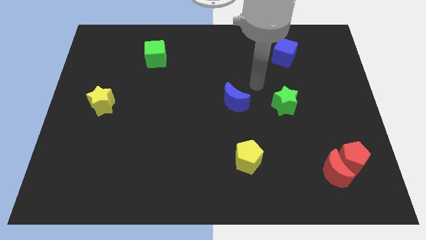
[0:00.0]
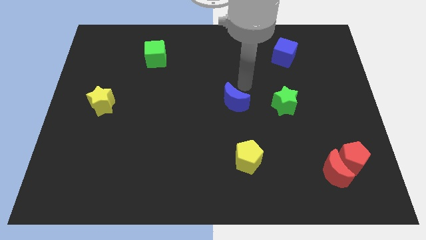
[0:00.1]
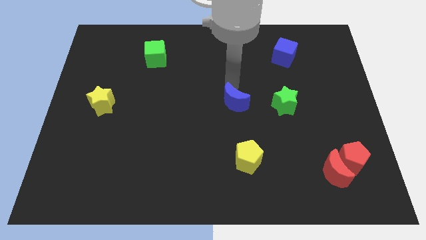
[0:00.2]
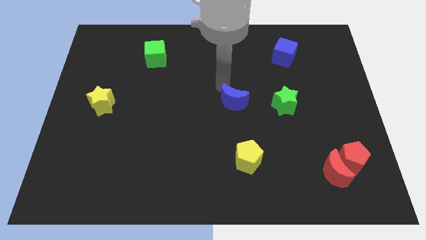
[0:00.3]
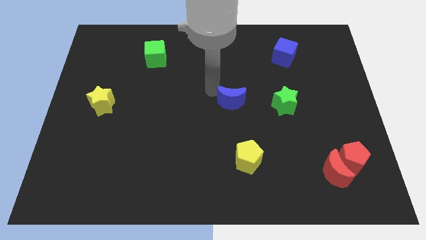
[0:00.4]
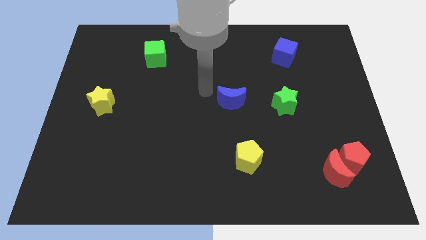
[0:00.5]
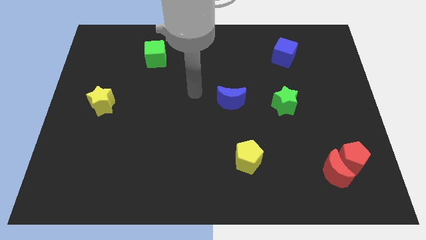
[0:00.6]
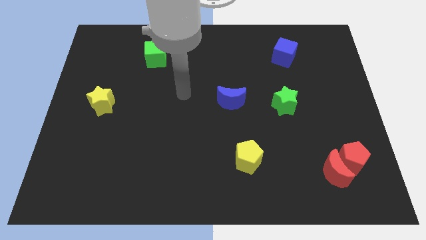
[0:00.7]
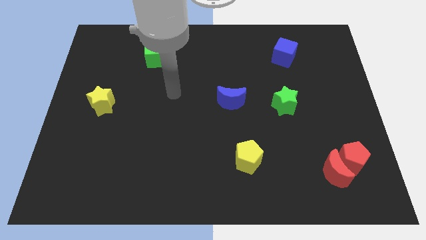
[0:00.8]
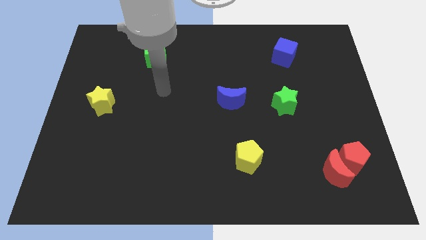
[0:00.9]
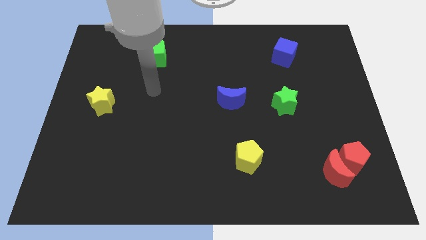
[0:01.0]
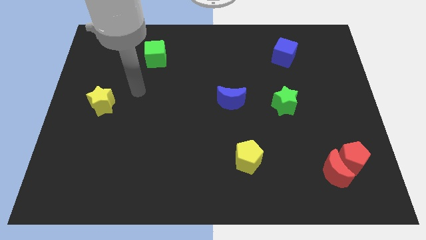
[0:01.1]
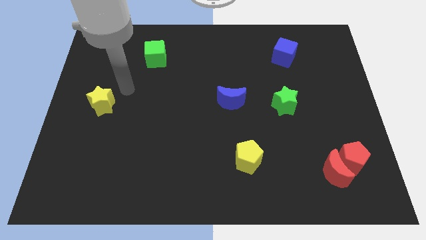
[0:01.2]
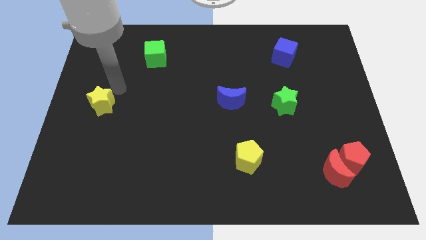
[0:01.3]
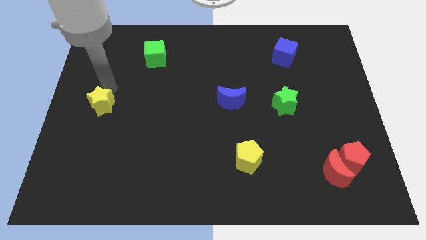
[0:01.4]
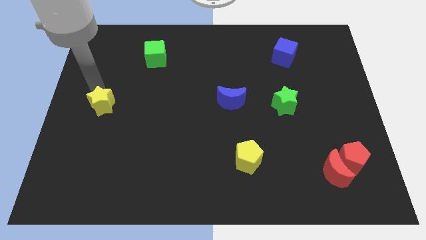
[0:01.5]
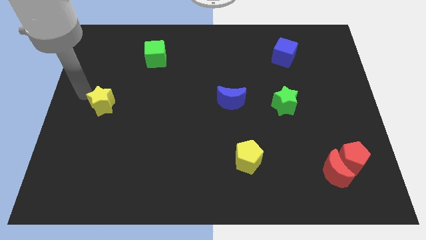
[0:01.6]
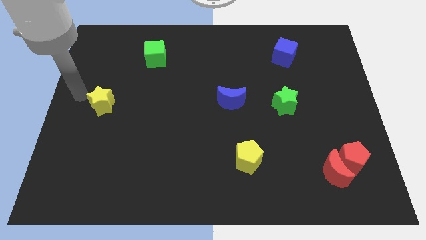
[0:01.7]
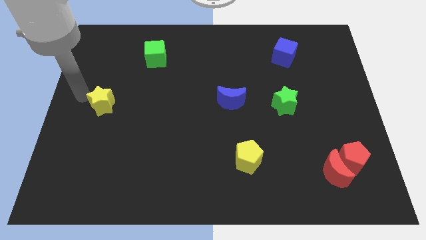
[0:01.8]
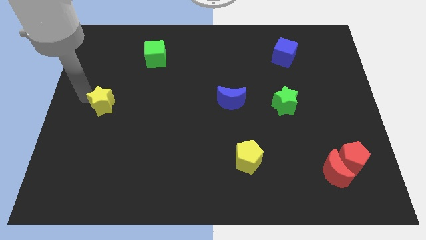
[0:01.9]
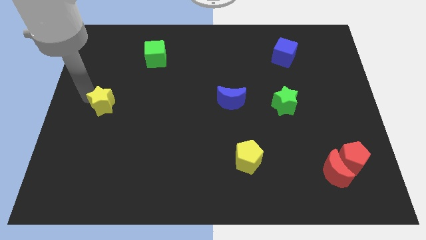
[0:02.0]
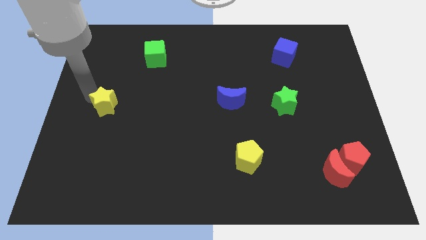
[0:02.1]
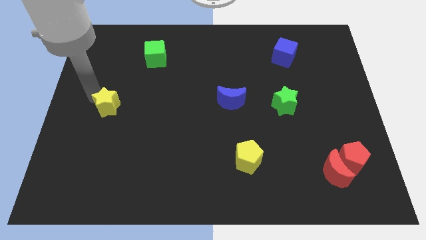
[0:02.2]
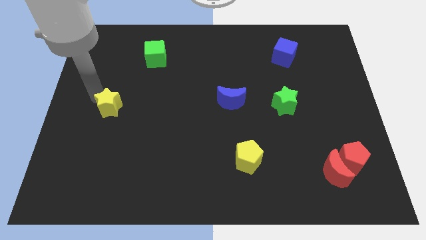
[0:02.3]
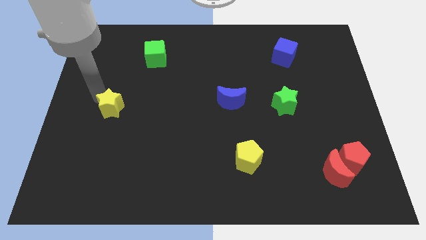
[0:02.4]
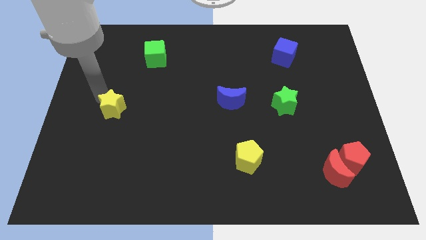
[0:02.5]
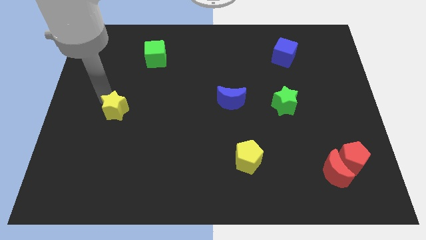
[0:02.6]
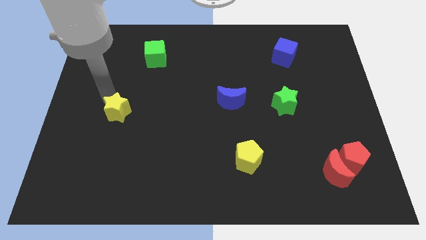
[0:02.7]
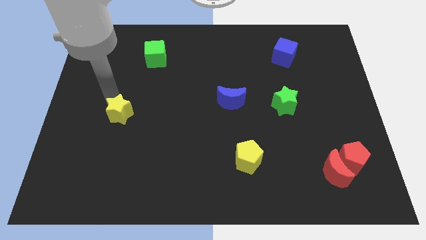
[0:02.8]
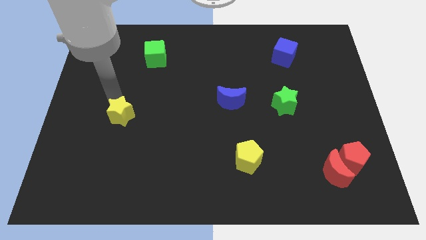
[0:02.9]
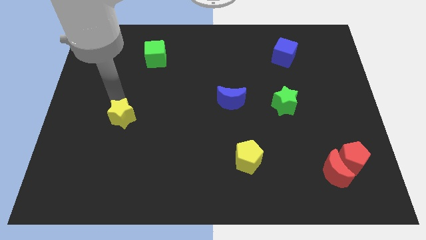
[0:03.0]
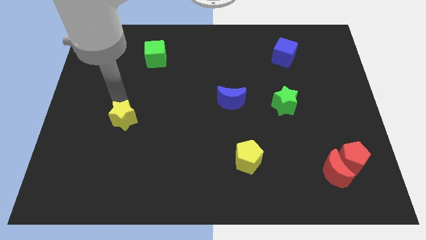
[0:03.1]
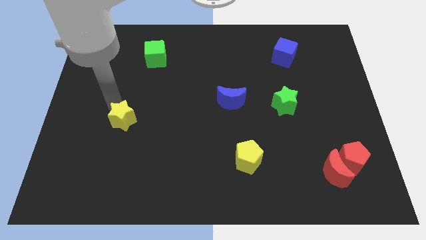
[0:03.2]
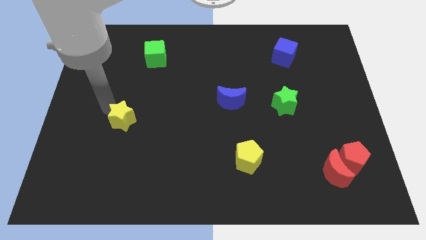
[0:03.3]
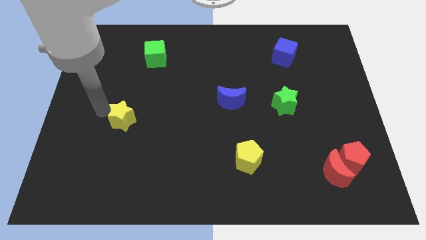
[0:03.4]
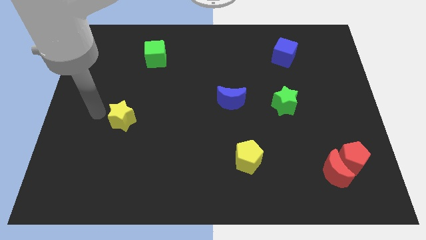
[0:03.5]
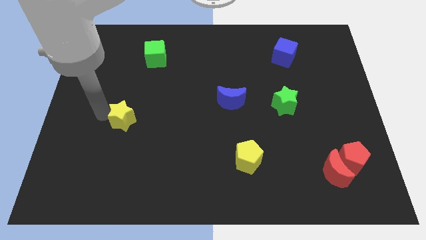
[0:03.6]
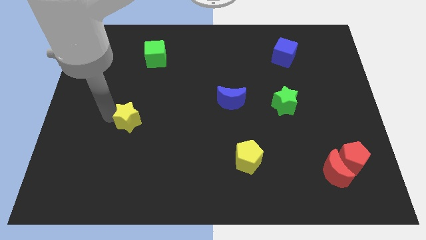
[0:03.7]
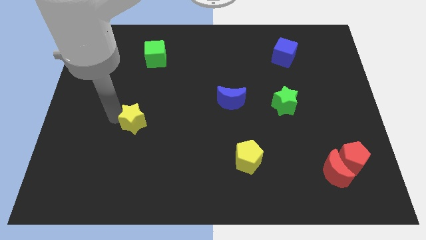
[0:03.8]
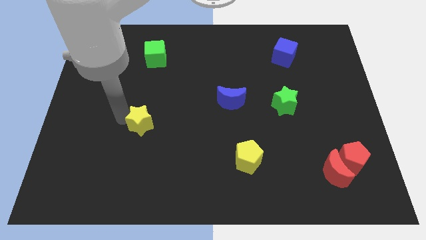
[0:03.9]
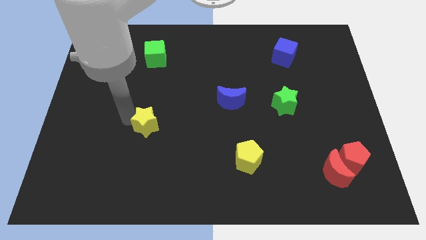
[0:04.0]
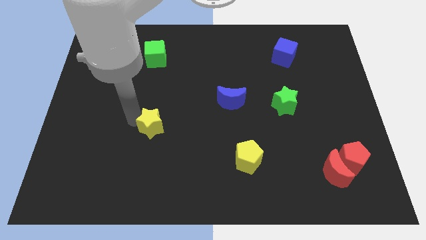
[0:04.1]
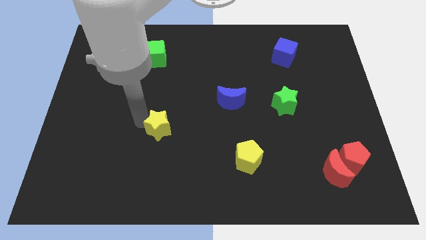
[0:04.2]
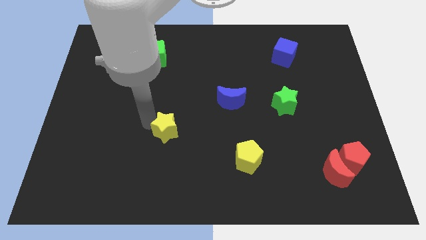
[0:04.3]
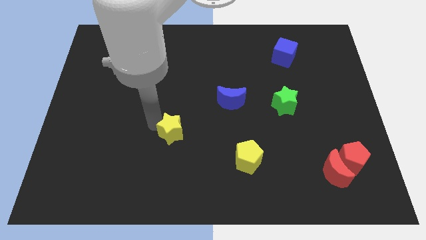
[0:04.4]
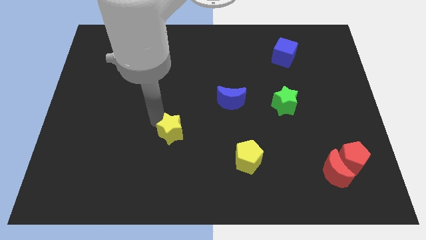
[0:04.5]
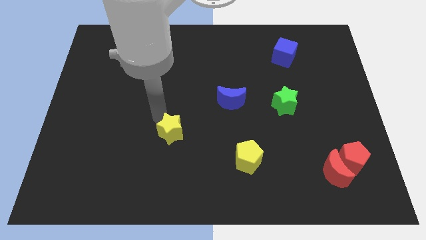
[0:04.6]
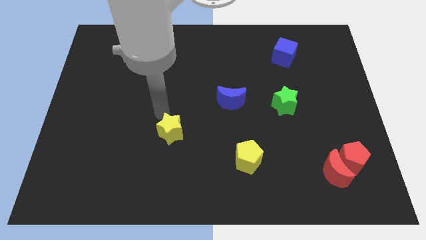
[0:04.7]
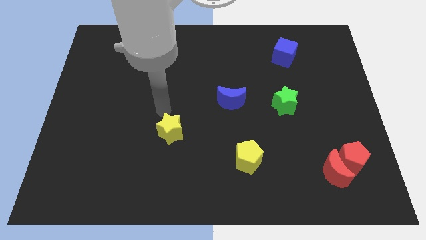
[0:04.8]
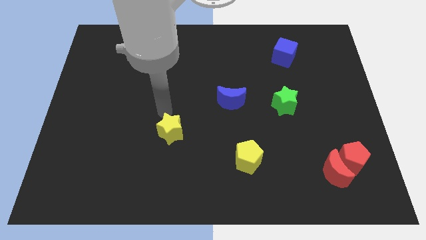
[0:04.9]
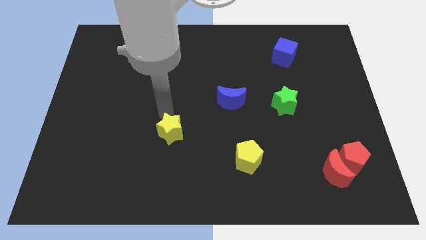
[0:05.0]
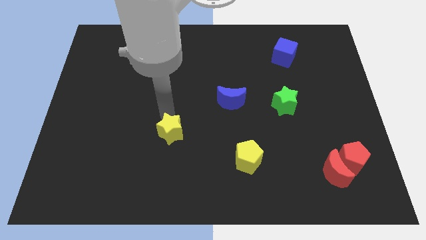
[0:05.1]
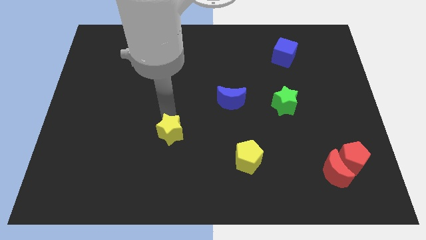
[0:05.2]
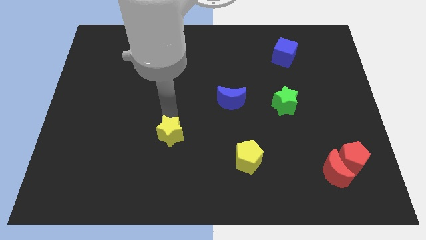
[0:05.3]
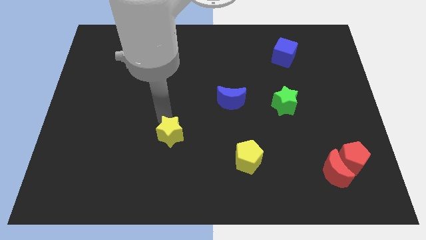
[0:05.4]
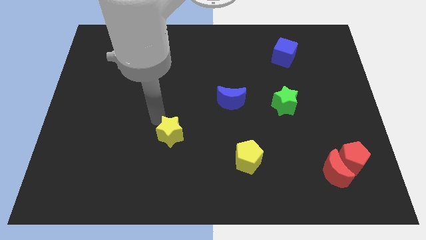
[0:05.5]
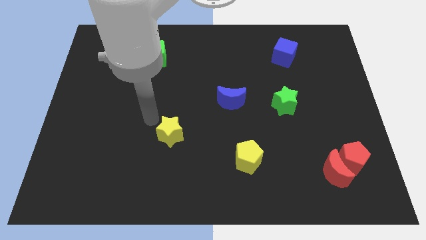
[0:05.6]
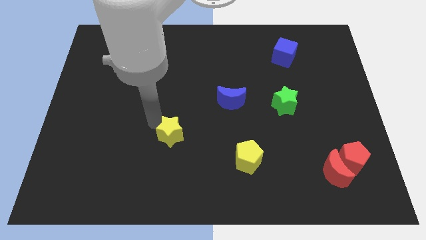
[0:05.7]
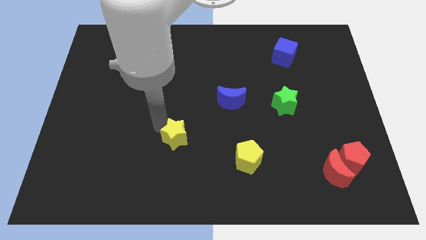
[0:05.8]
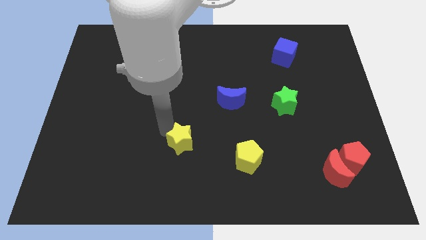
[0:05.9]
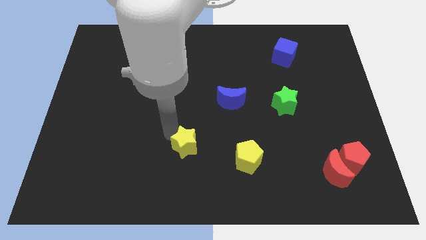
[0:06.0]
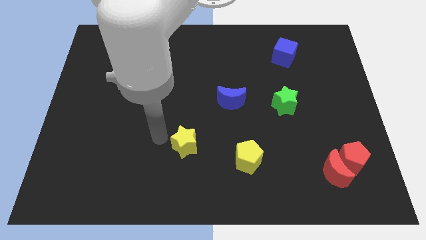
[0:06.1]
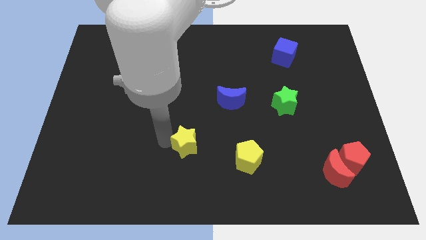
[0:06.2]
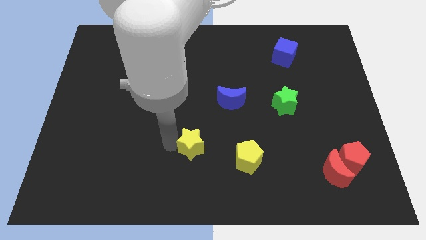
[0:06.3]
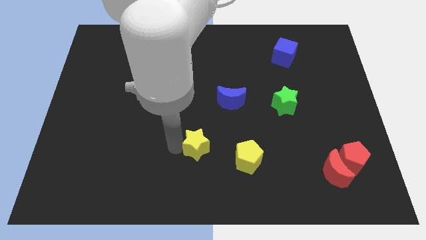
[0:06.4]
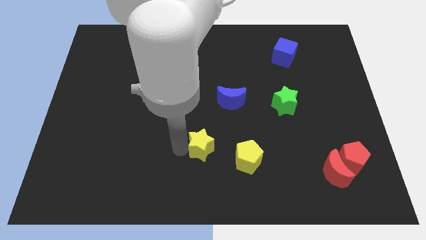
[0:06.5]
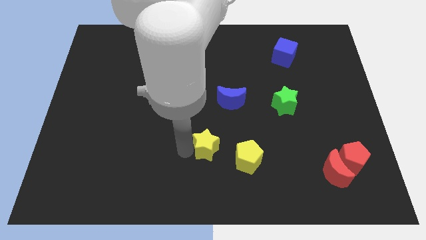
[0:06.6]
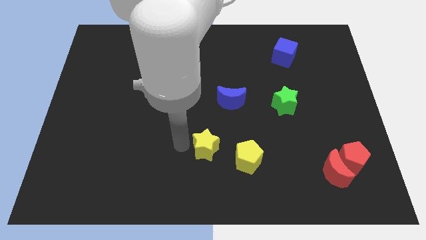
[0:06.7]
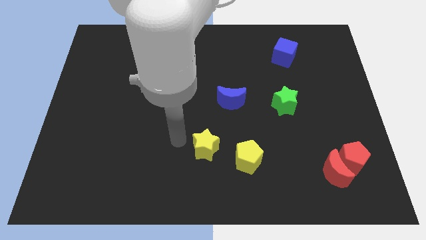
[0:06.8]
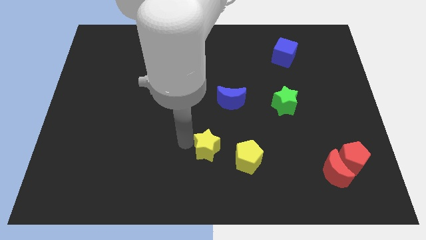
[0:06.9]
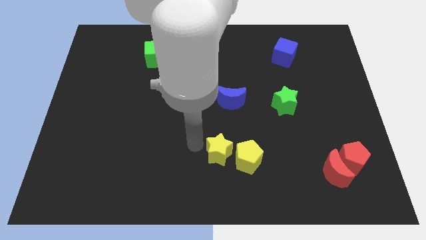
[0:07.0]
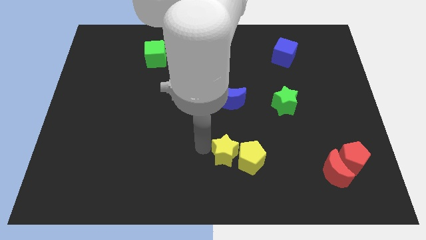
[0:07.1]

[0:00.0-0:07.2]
put the yellow star close to the yellow pentagon
